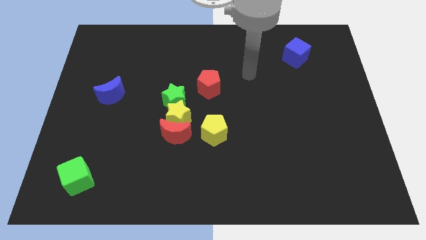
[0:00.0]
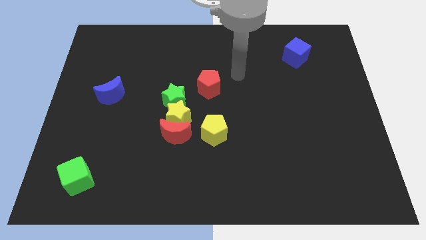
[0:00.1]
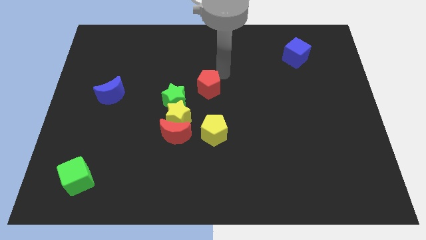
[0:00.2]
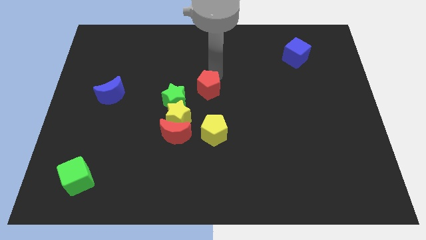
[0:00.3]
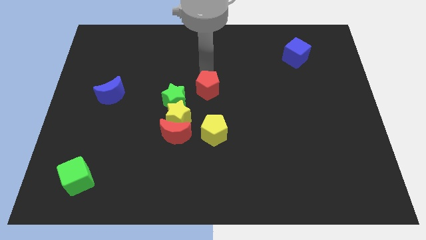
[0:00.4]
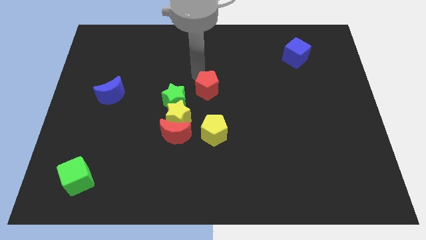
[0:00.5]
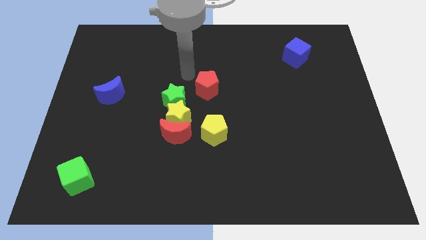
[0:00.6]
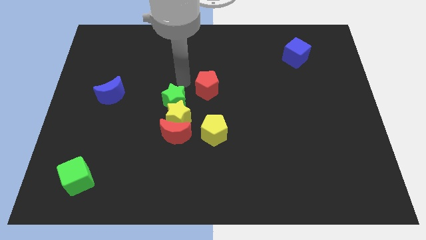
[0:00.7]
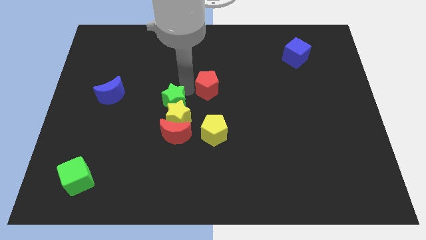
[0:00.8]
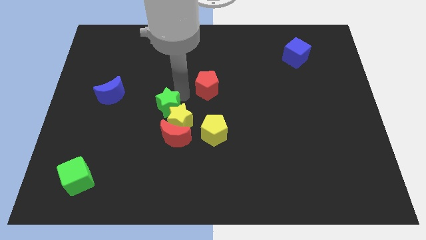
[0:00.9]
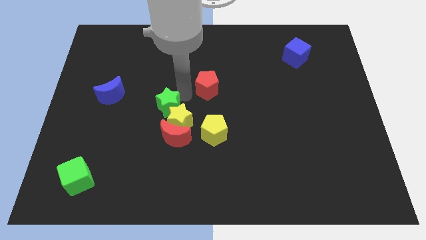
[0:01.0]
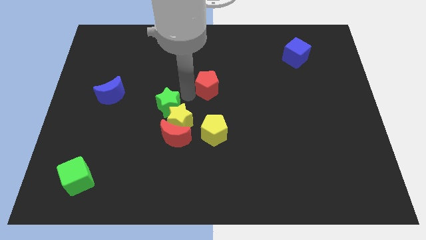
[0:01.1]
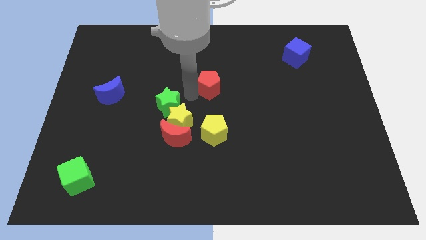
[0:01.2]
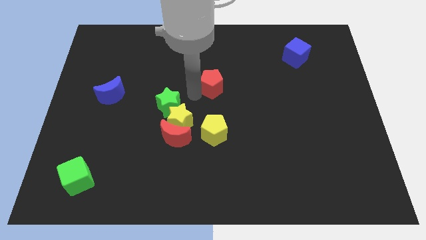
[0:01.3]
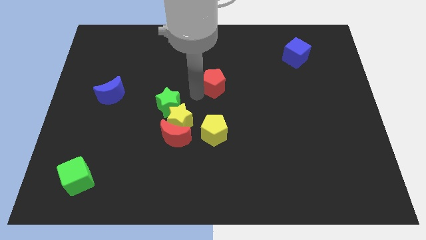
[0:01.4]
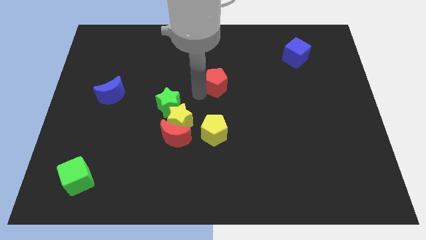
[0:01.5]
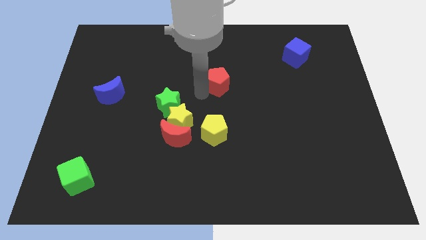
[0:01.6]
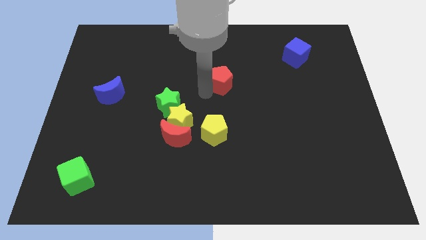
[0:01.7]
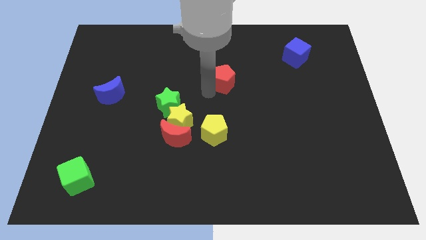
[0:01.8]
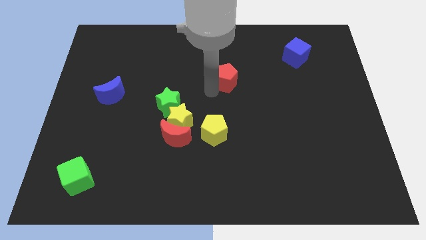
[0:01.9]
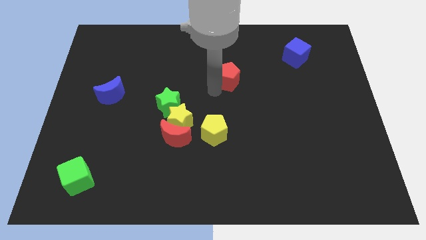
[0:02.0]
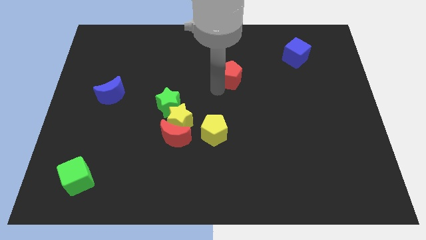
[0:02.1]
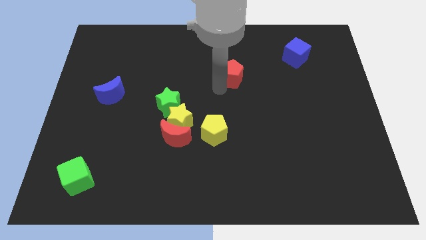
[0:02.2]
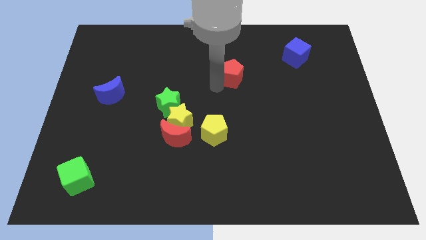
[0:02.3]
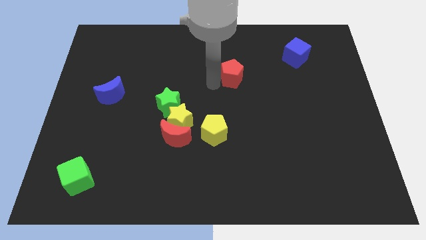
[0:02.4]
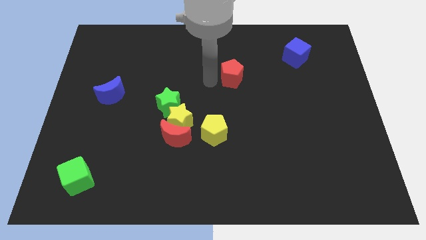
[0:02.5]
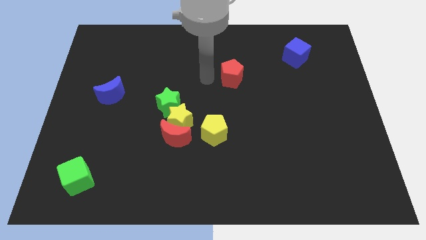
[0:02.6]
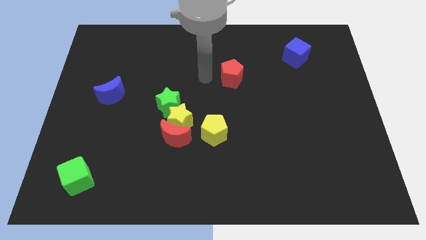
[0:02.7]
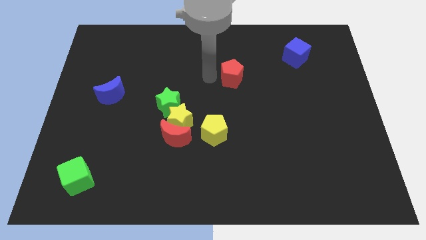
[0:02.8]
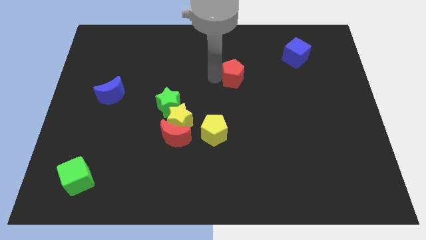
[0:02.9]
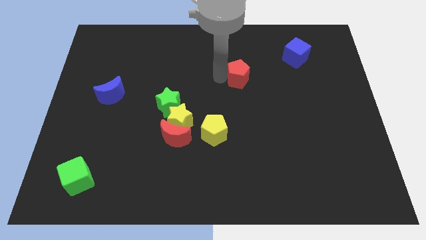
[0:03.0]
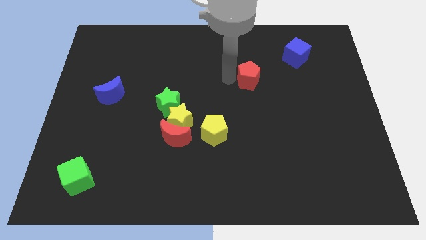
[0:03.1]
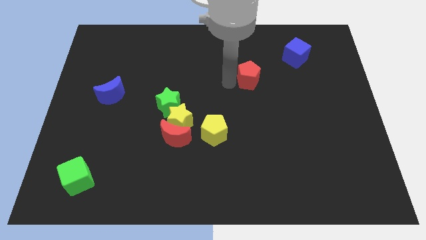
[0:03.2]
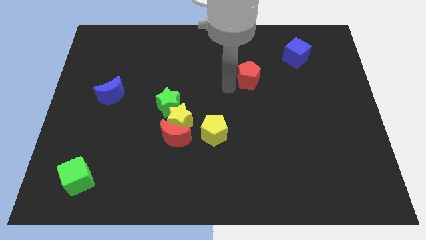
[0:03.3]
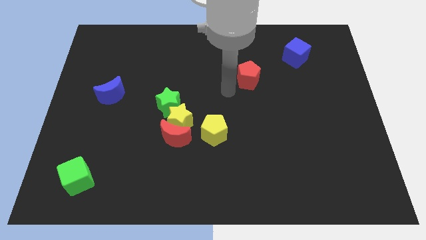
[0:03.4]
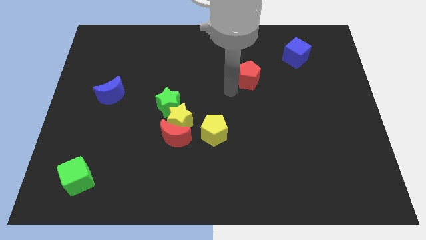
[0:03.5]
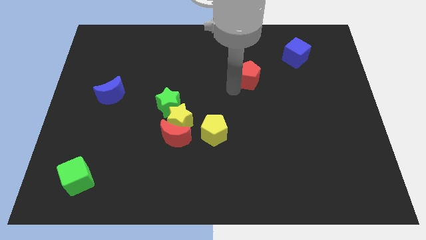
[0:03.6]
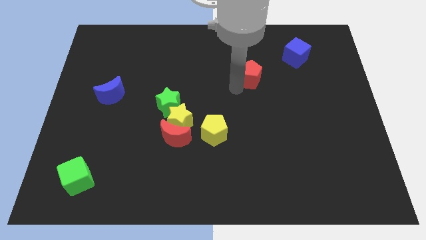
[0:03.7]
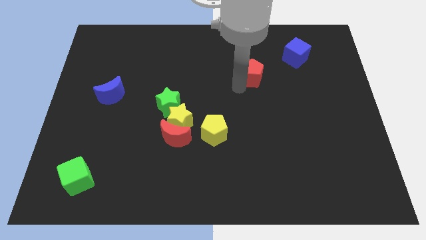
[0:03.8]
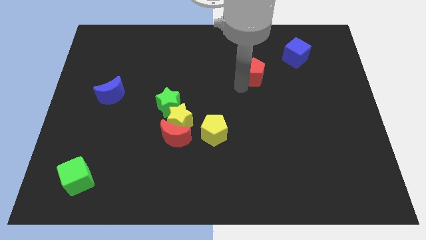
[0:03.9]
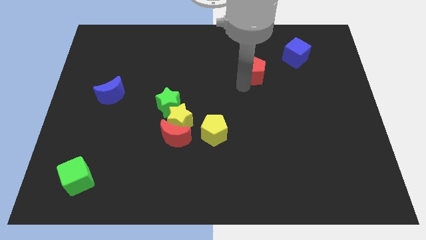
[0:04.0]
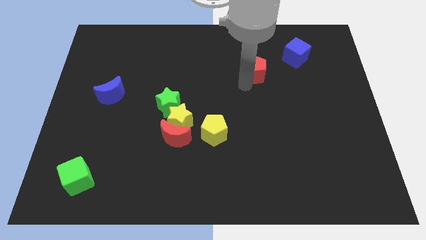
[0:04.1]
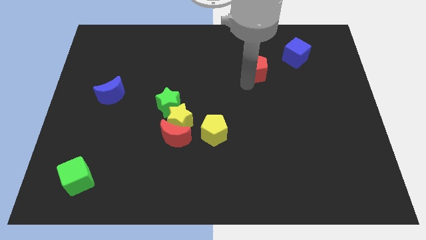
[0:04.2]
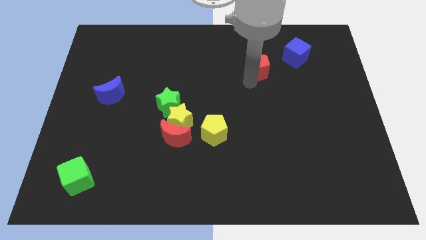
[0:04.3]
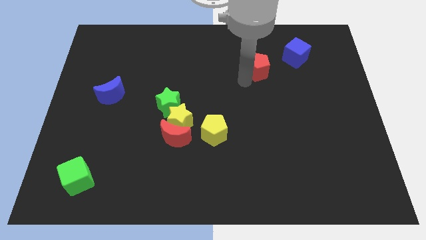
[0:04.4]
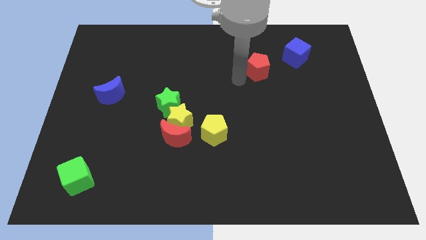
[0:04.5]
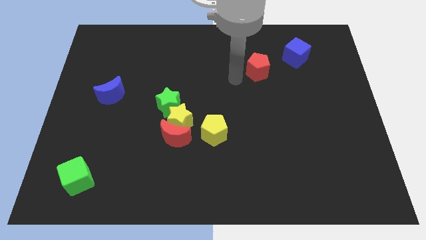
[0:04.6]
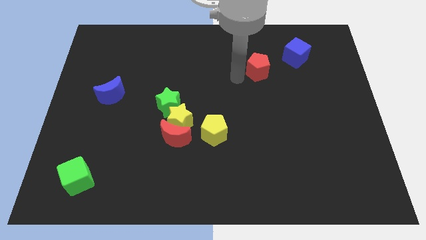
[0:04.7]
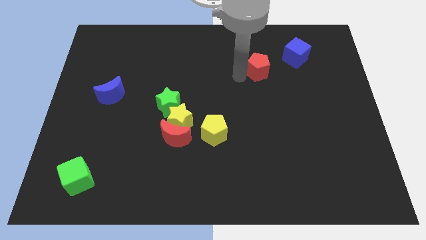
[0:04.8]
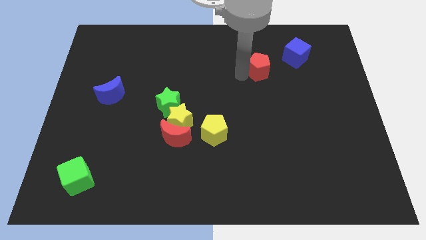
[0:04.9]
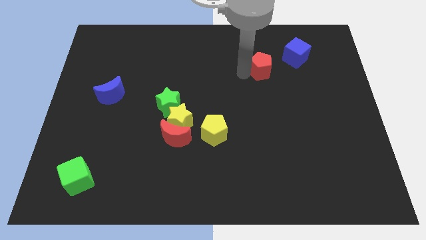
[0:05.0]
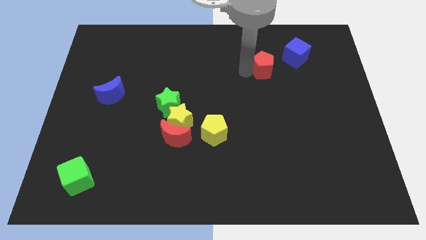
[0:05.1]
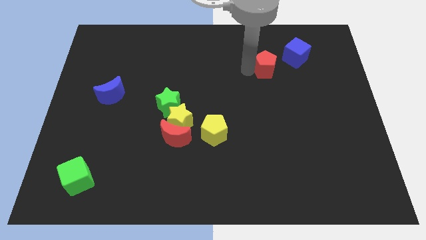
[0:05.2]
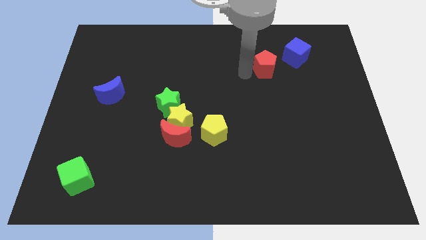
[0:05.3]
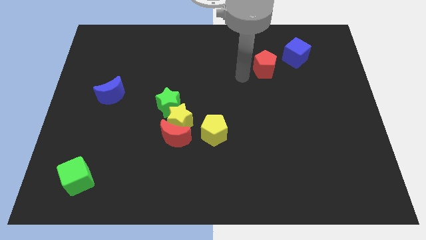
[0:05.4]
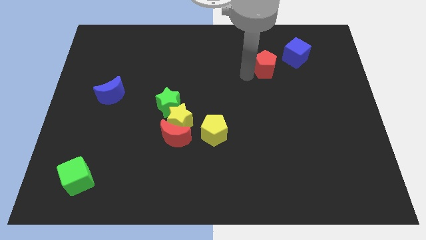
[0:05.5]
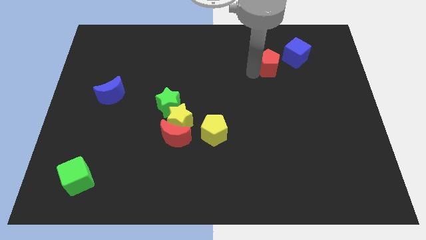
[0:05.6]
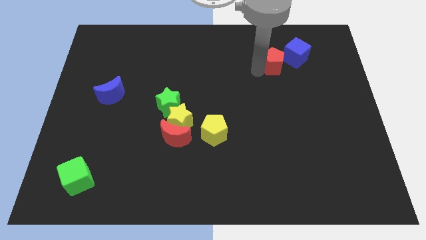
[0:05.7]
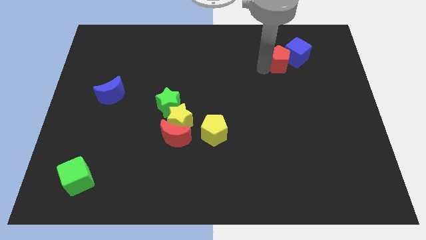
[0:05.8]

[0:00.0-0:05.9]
push the red pentagon next to the blue cube
